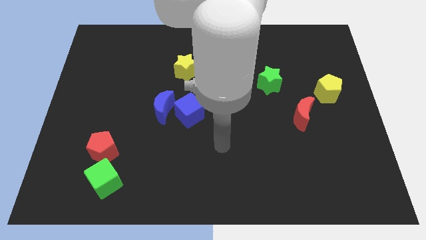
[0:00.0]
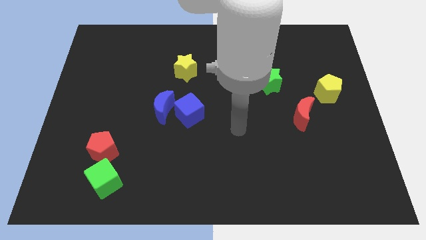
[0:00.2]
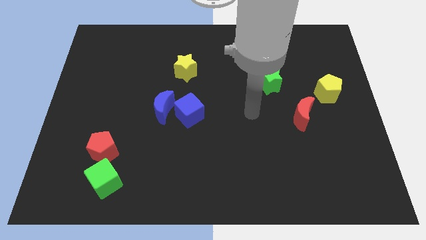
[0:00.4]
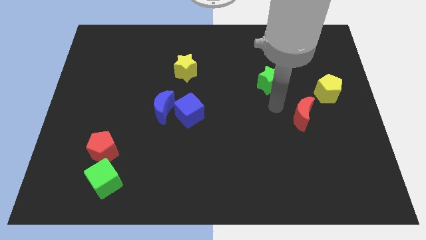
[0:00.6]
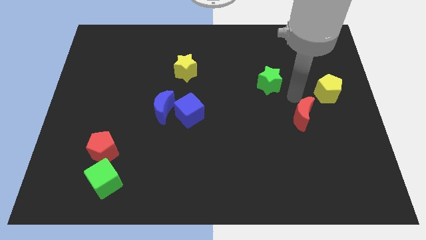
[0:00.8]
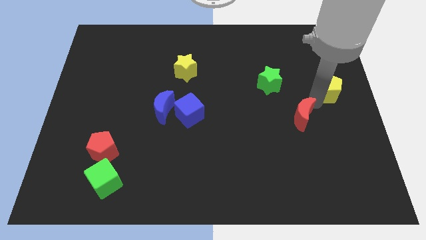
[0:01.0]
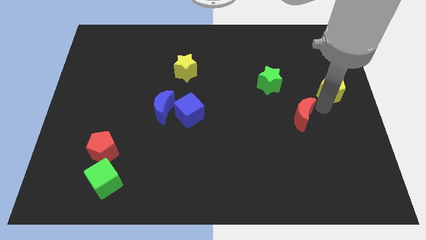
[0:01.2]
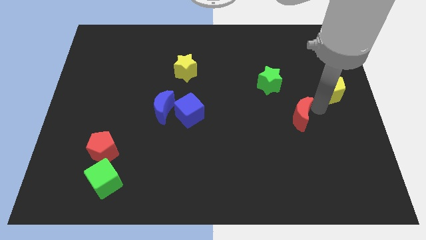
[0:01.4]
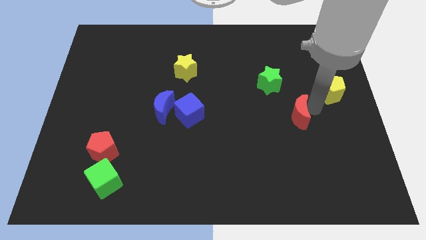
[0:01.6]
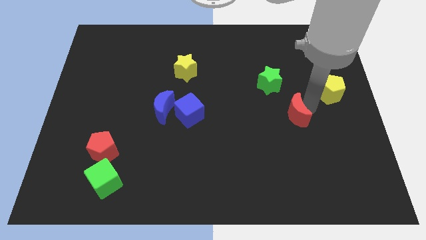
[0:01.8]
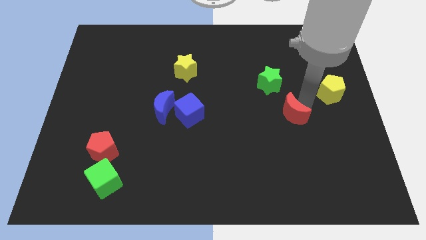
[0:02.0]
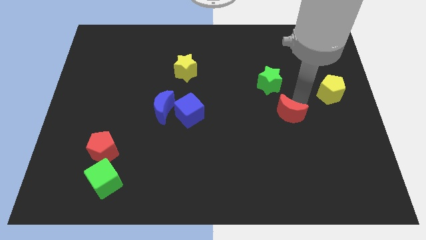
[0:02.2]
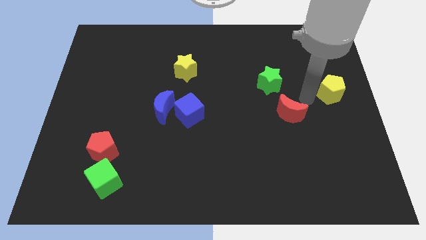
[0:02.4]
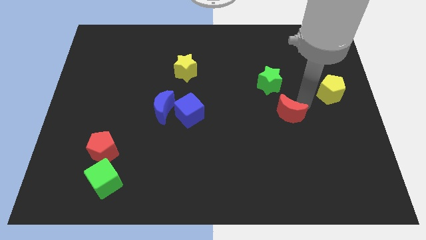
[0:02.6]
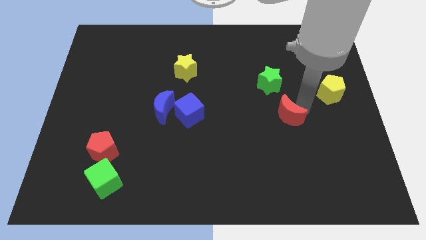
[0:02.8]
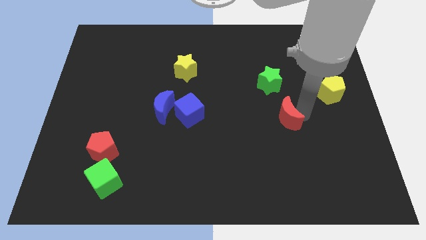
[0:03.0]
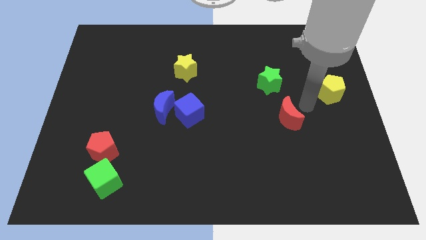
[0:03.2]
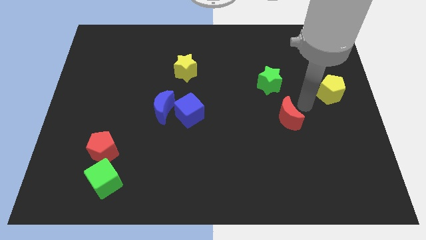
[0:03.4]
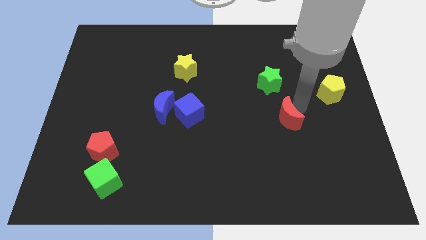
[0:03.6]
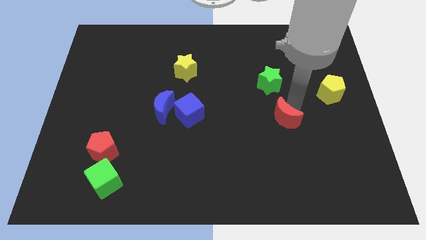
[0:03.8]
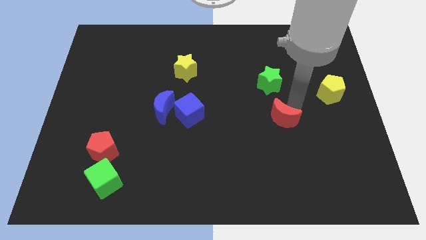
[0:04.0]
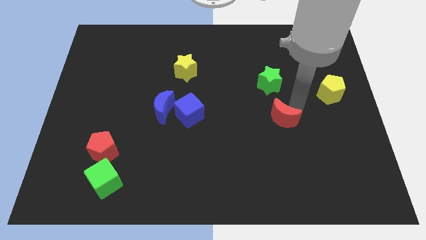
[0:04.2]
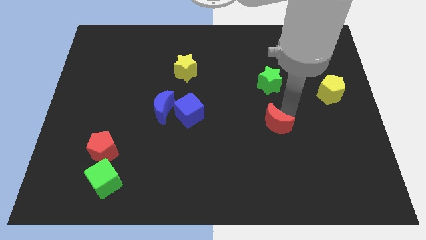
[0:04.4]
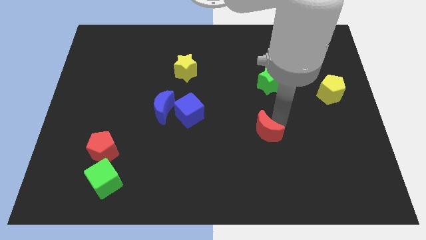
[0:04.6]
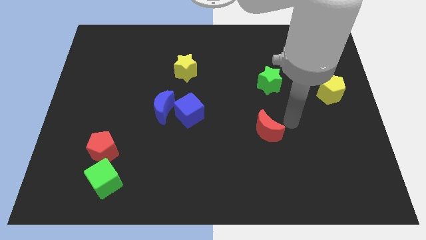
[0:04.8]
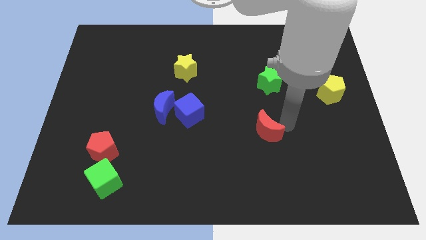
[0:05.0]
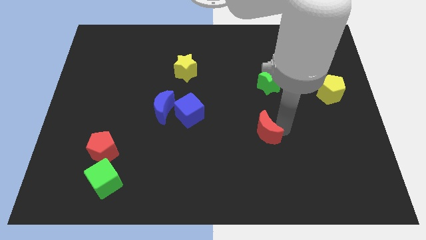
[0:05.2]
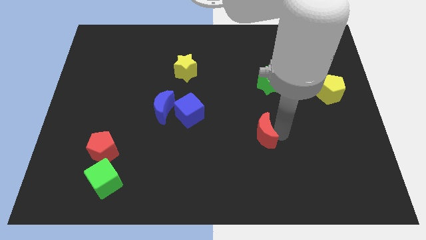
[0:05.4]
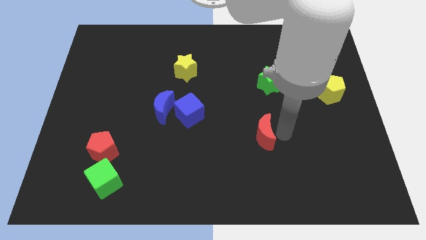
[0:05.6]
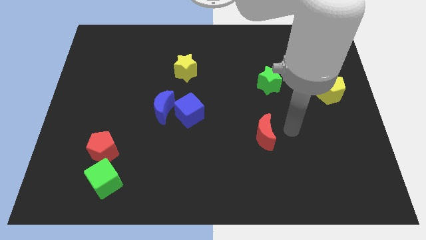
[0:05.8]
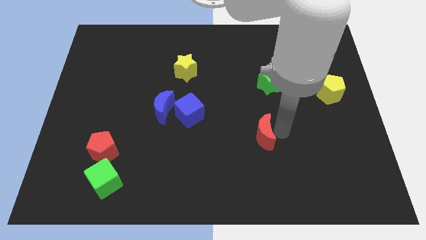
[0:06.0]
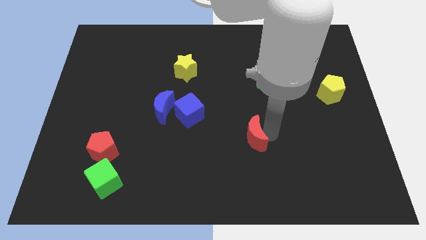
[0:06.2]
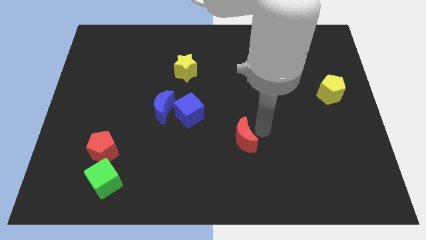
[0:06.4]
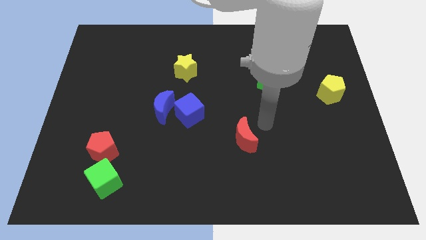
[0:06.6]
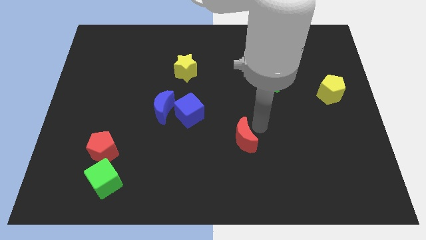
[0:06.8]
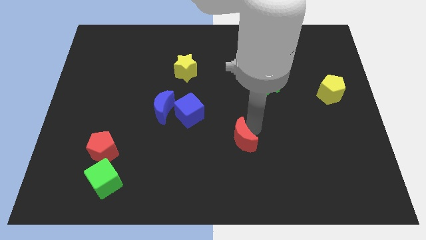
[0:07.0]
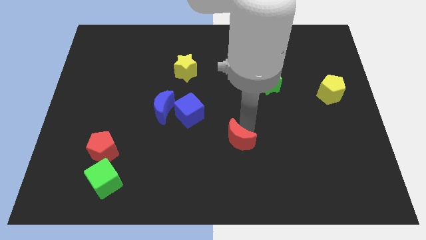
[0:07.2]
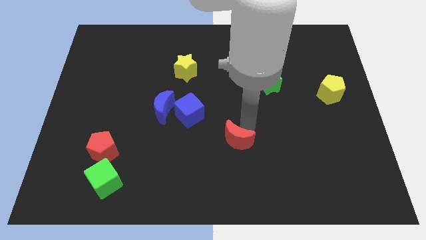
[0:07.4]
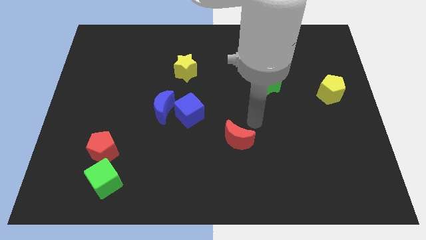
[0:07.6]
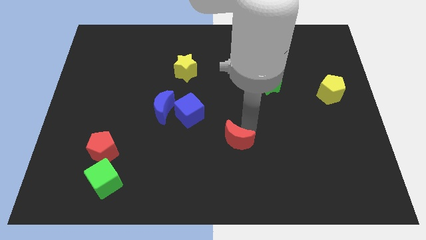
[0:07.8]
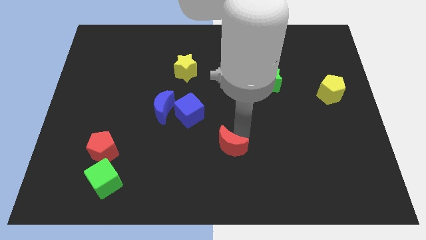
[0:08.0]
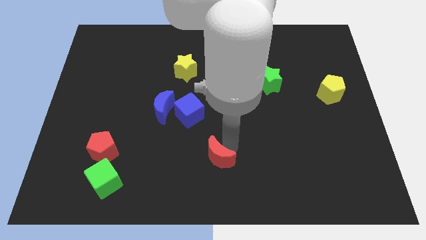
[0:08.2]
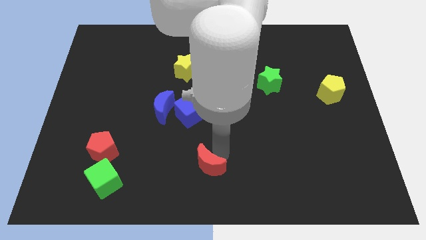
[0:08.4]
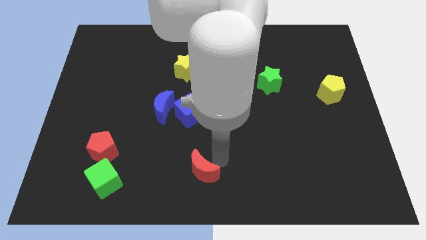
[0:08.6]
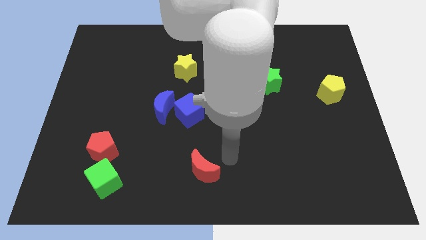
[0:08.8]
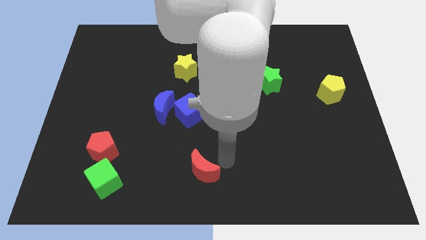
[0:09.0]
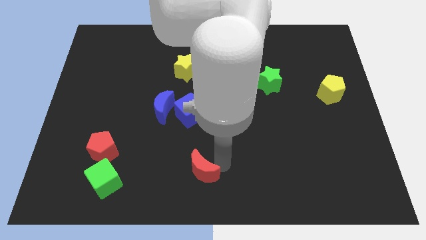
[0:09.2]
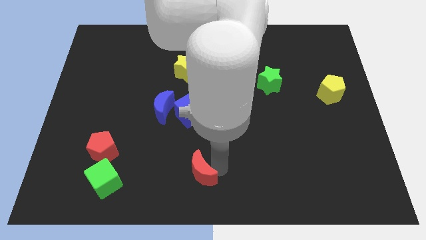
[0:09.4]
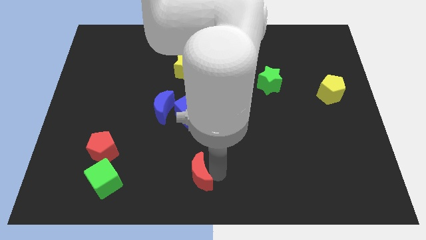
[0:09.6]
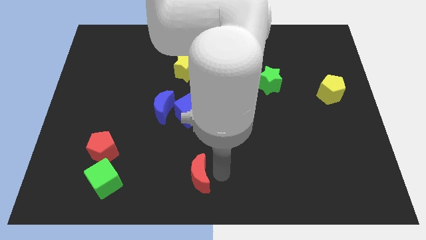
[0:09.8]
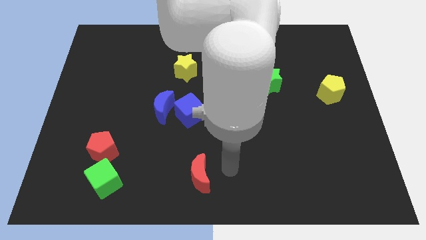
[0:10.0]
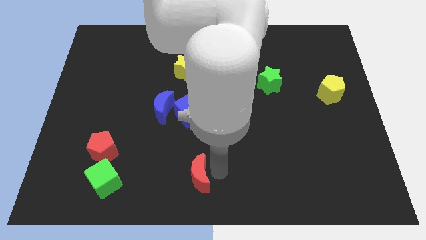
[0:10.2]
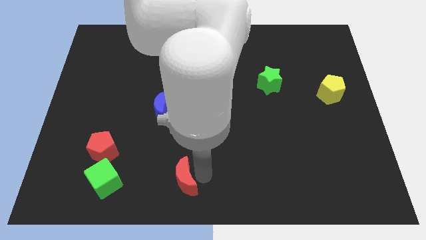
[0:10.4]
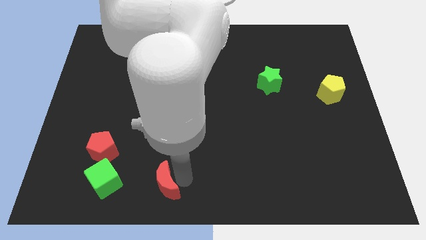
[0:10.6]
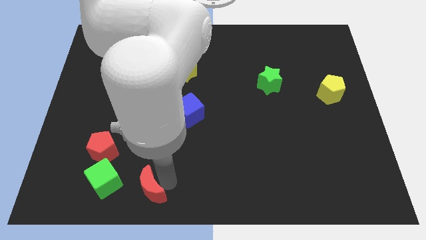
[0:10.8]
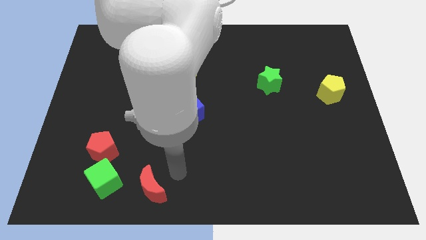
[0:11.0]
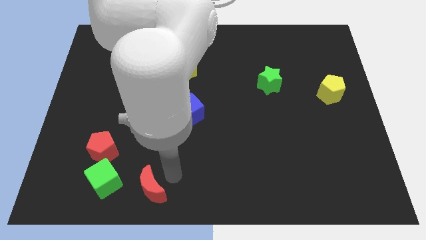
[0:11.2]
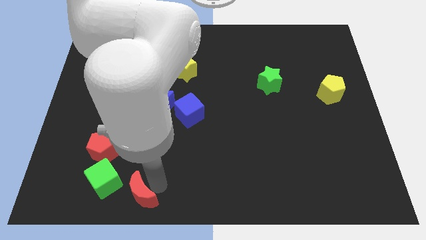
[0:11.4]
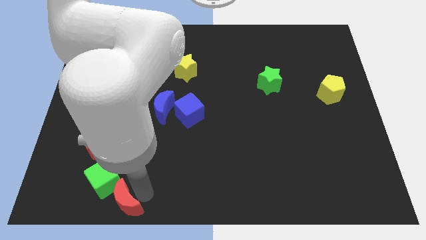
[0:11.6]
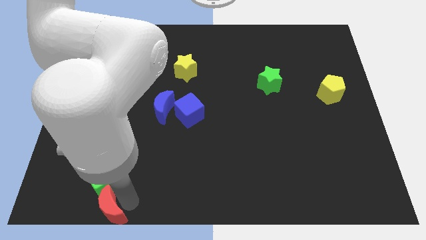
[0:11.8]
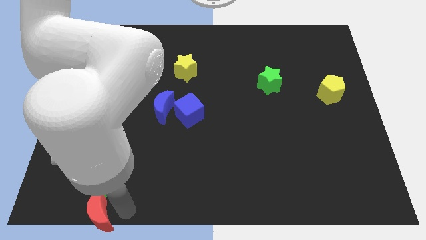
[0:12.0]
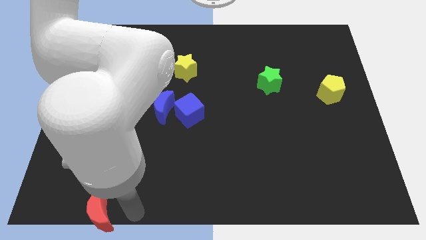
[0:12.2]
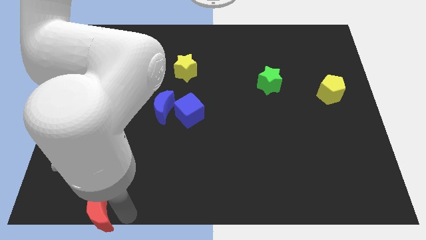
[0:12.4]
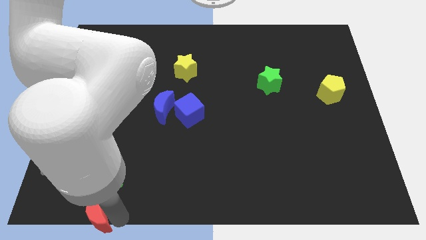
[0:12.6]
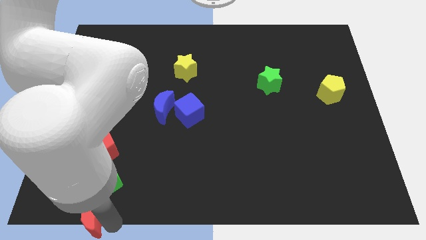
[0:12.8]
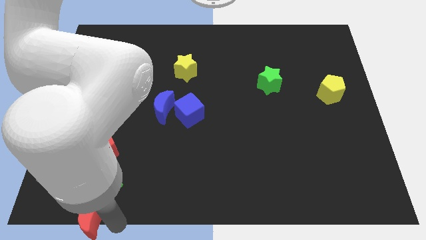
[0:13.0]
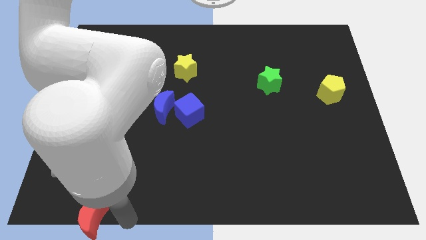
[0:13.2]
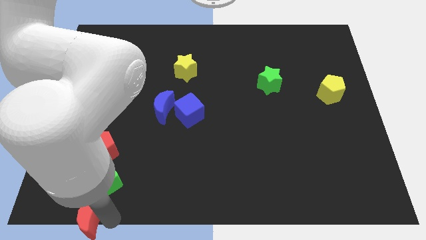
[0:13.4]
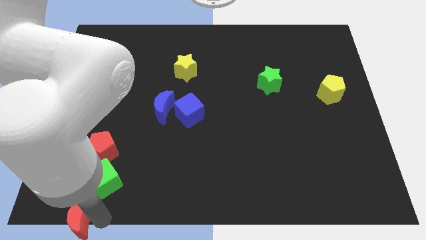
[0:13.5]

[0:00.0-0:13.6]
put the red moon to the bottom left of the board

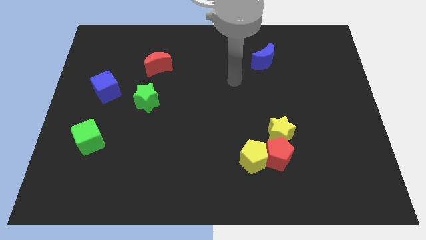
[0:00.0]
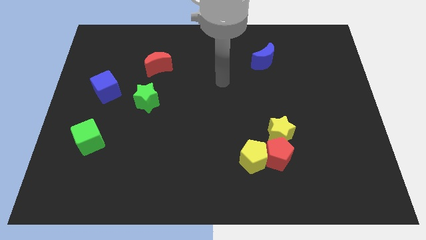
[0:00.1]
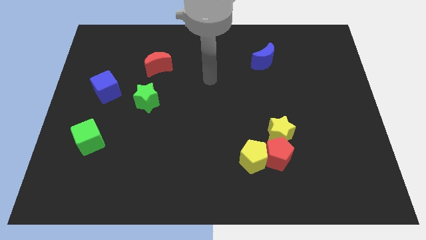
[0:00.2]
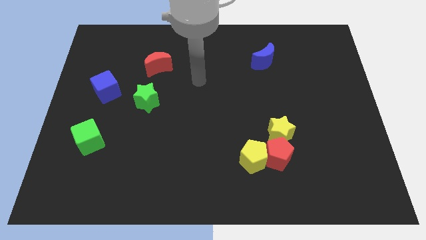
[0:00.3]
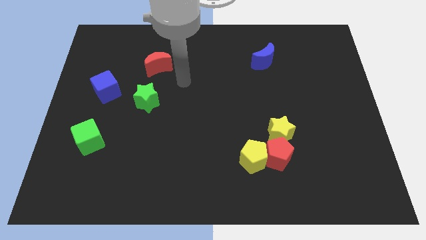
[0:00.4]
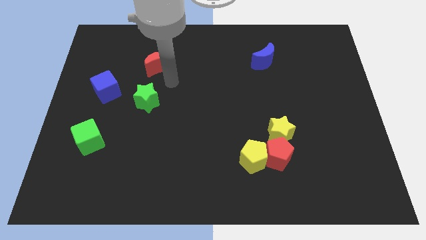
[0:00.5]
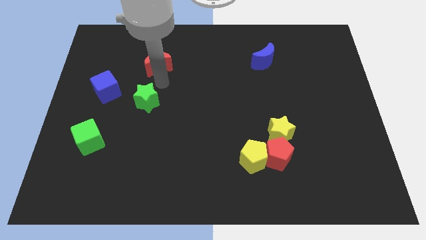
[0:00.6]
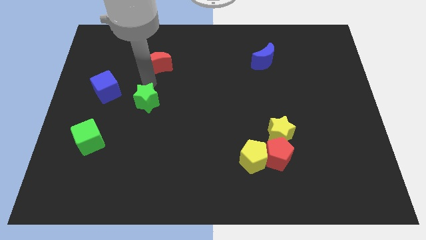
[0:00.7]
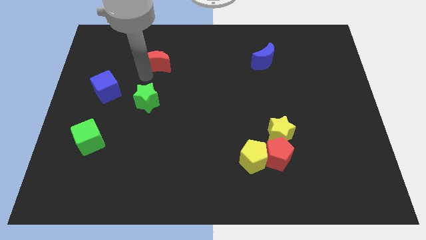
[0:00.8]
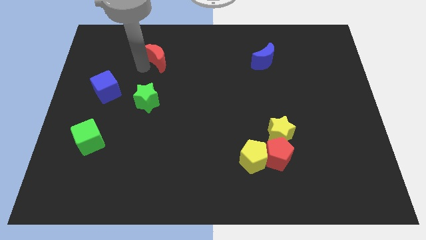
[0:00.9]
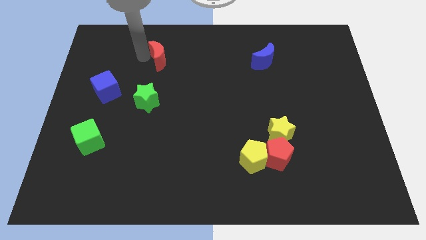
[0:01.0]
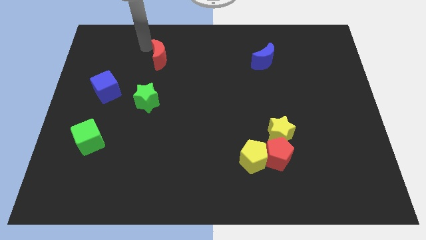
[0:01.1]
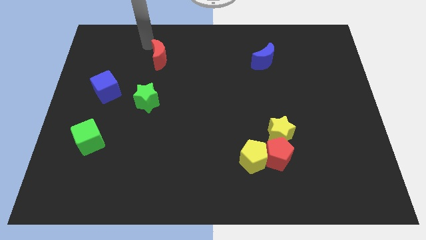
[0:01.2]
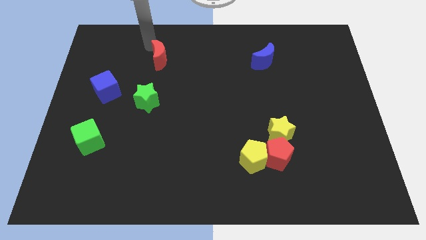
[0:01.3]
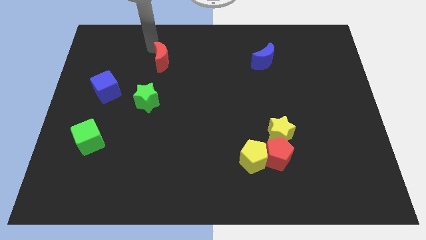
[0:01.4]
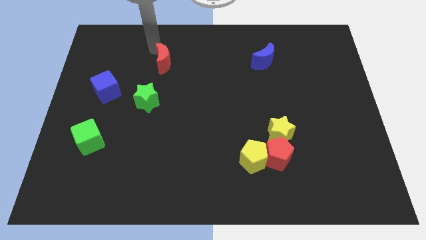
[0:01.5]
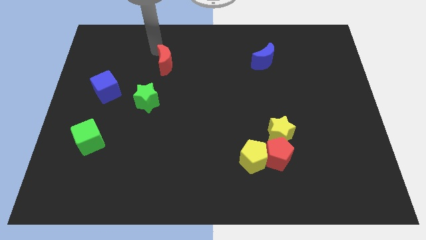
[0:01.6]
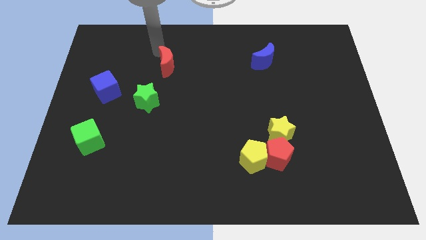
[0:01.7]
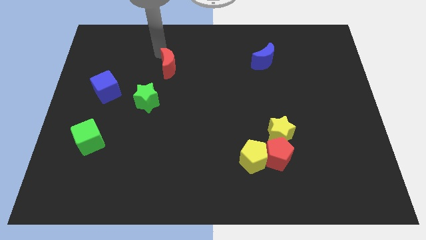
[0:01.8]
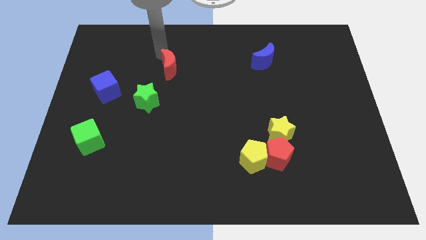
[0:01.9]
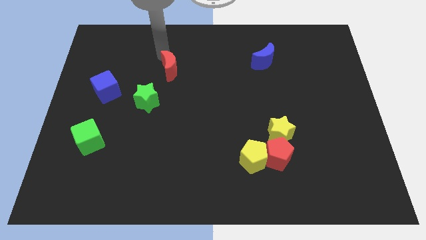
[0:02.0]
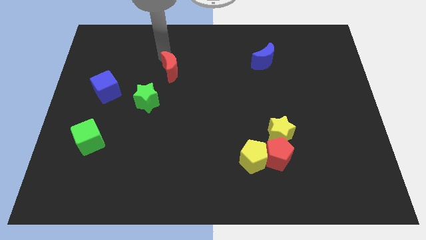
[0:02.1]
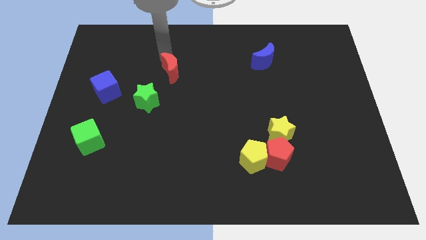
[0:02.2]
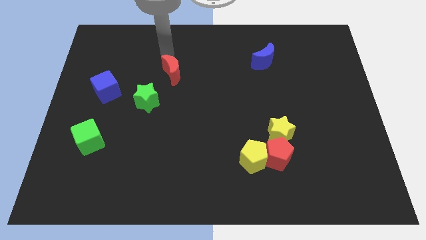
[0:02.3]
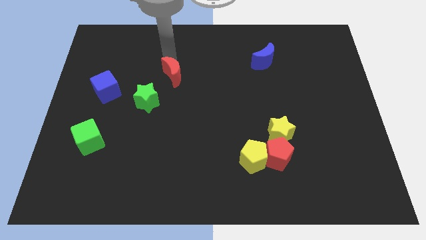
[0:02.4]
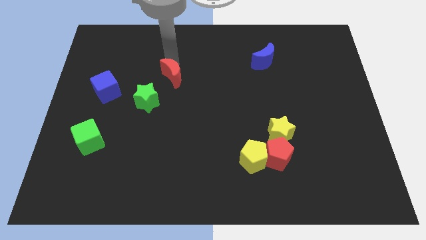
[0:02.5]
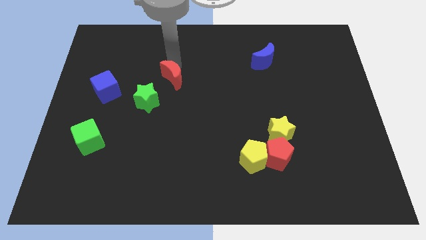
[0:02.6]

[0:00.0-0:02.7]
push the red moon to the middle of the board
